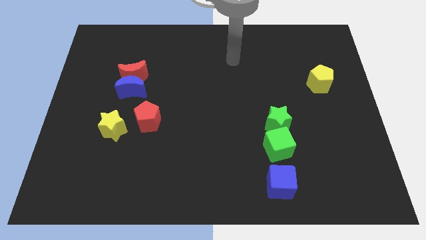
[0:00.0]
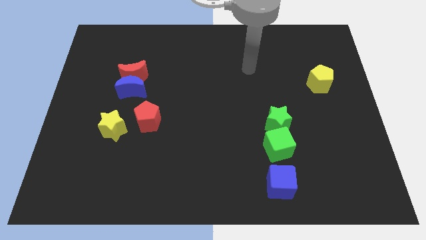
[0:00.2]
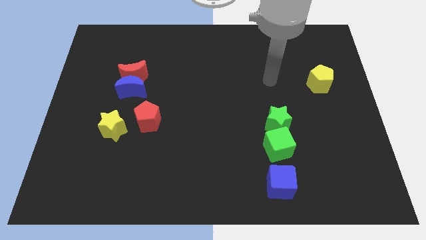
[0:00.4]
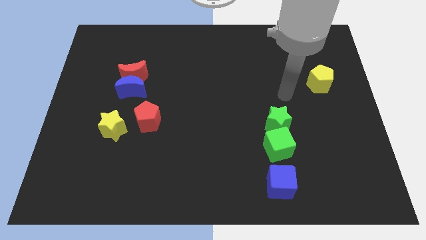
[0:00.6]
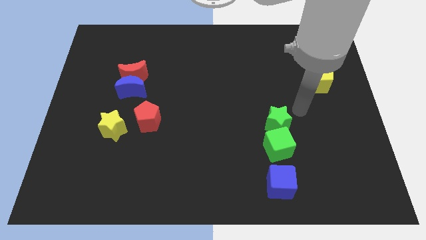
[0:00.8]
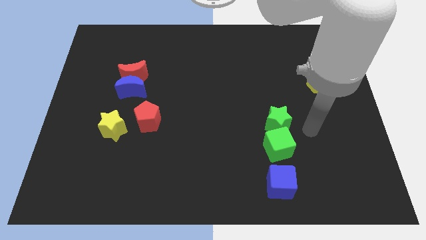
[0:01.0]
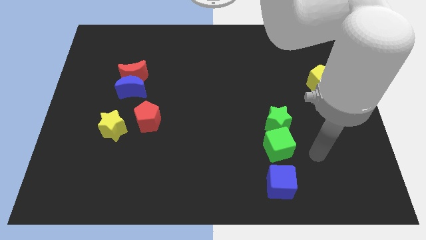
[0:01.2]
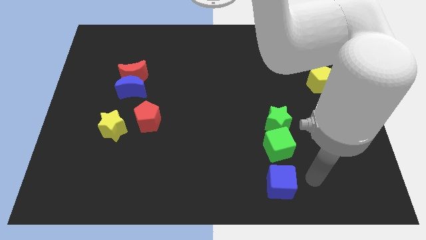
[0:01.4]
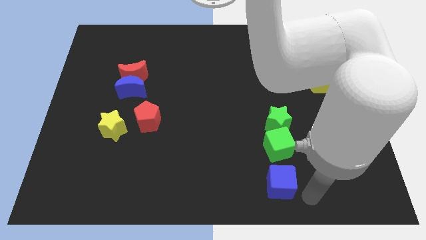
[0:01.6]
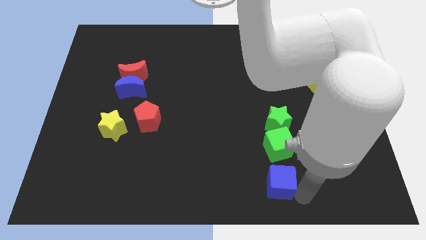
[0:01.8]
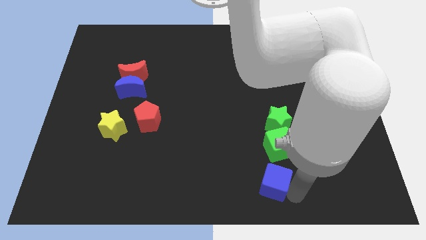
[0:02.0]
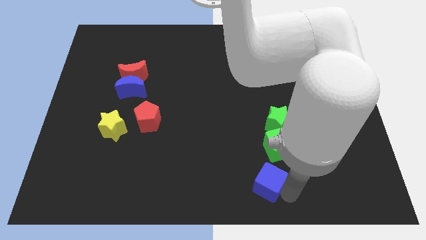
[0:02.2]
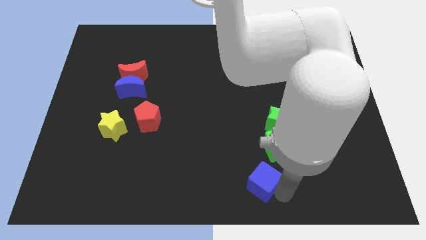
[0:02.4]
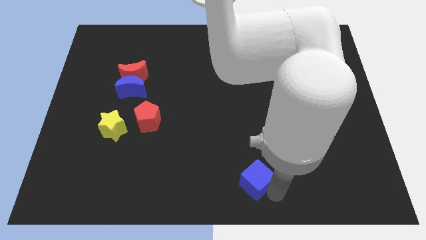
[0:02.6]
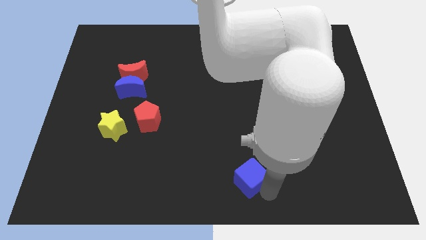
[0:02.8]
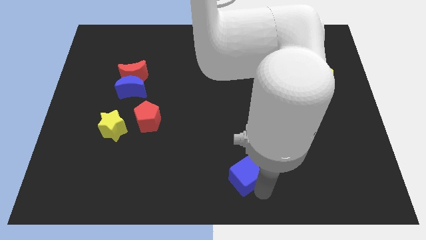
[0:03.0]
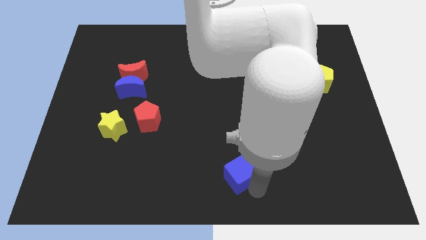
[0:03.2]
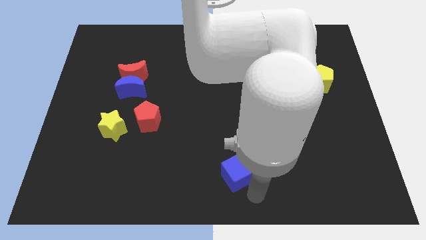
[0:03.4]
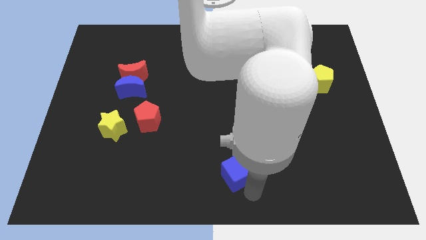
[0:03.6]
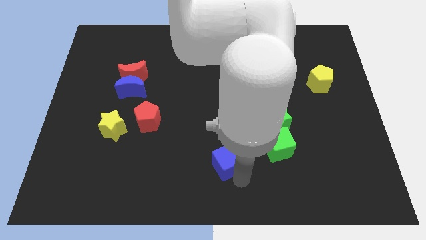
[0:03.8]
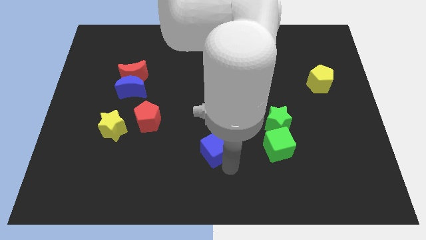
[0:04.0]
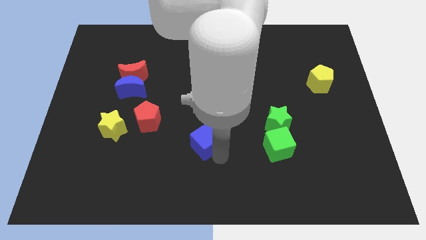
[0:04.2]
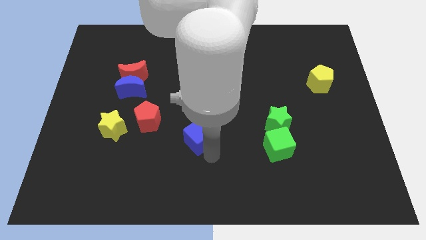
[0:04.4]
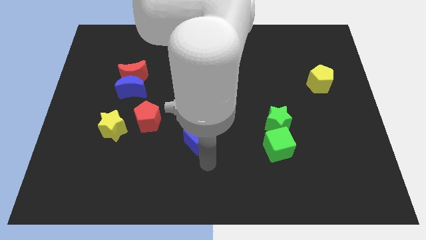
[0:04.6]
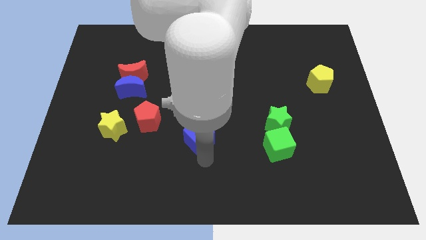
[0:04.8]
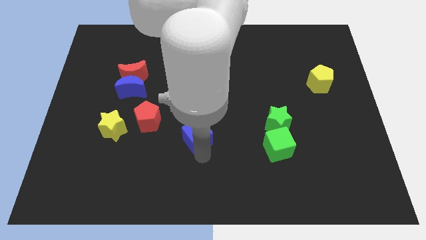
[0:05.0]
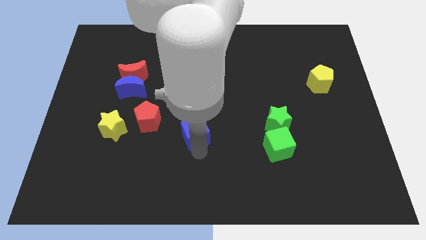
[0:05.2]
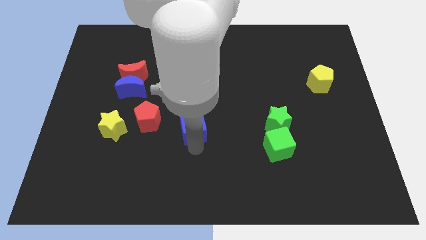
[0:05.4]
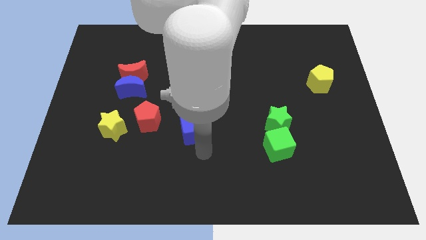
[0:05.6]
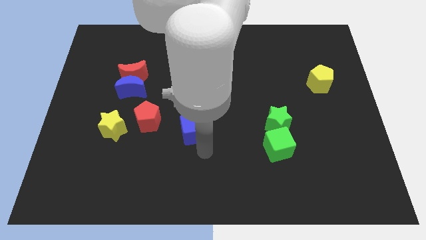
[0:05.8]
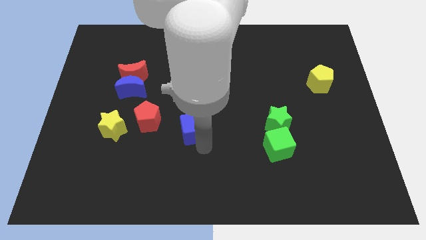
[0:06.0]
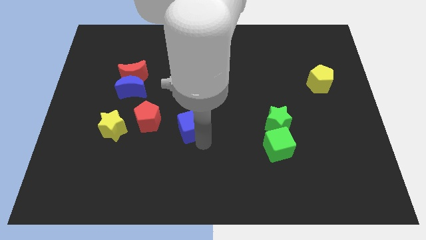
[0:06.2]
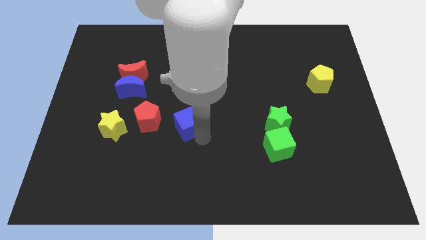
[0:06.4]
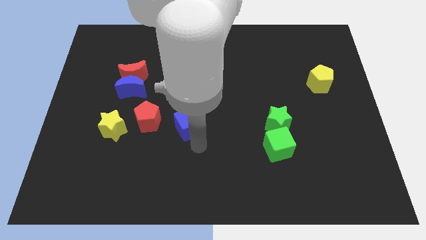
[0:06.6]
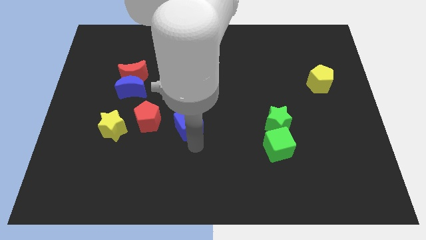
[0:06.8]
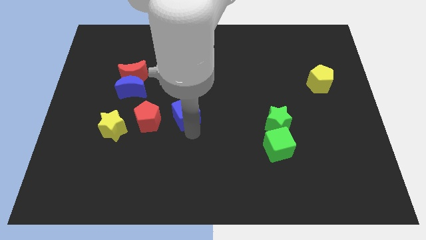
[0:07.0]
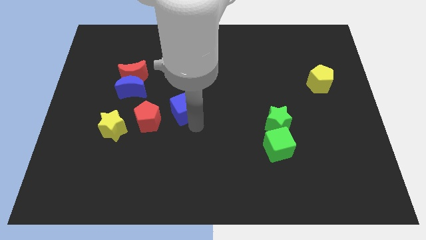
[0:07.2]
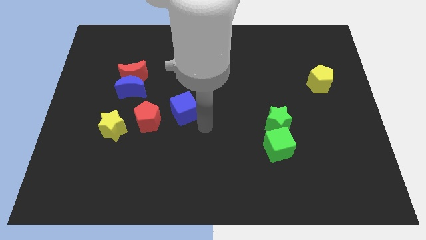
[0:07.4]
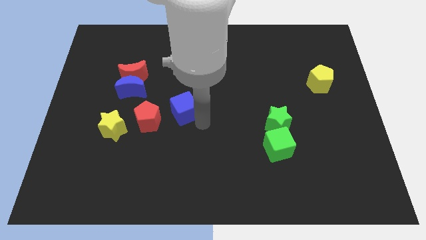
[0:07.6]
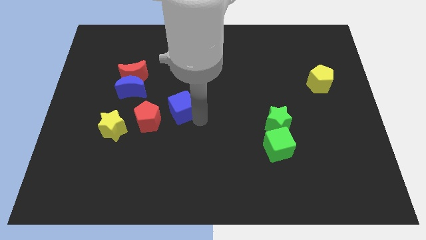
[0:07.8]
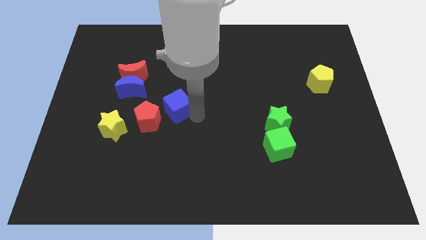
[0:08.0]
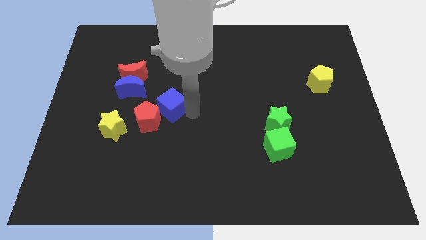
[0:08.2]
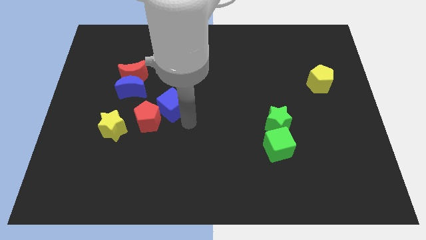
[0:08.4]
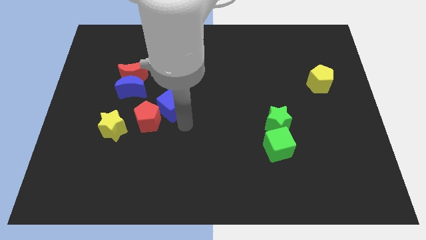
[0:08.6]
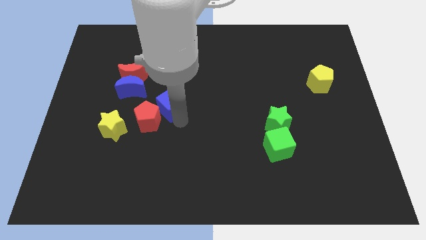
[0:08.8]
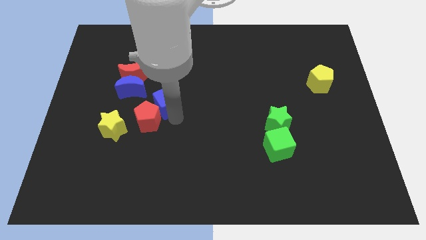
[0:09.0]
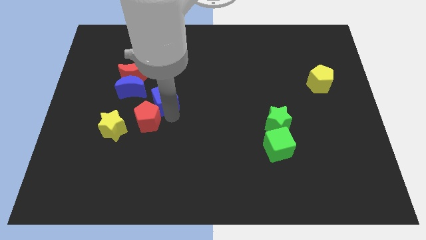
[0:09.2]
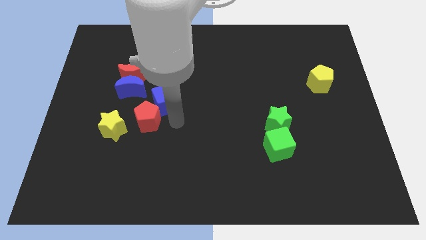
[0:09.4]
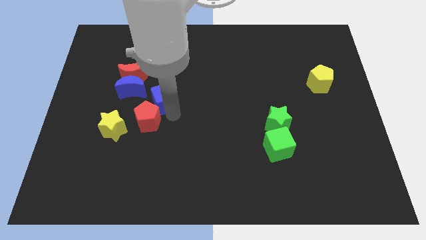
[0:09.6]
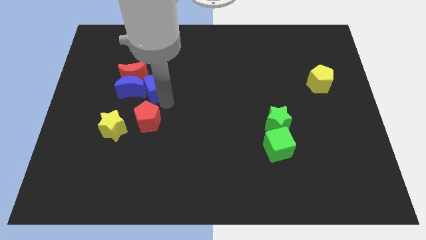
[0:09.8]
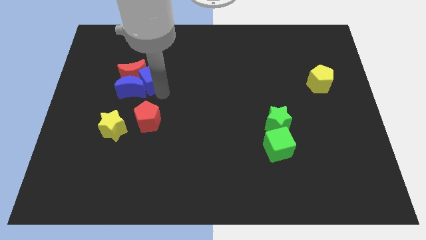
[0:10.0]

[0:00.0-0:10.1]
put the blue cube close to the red moon

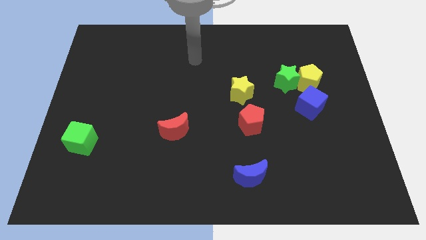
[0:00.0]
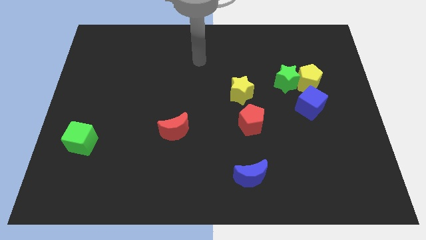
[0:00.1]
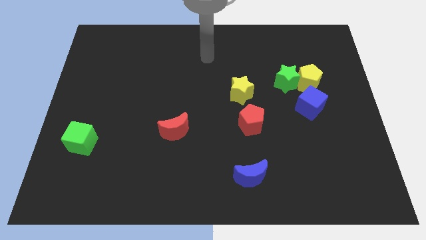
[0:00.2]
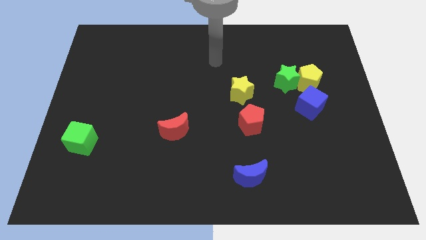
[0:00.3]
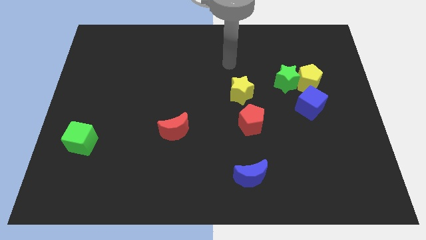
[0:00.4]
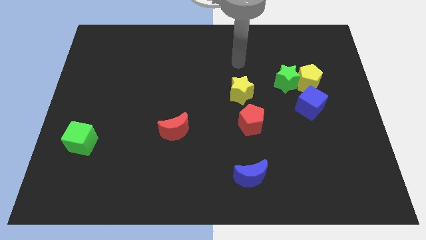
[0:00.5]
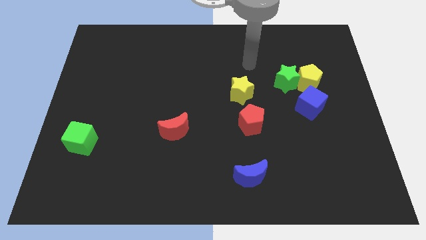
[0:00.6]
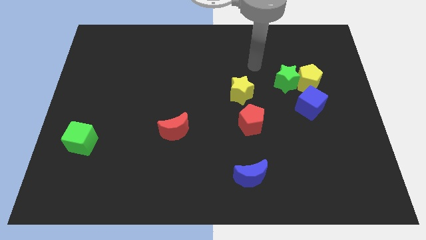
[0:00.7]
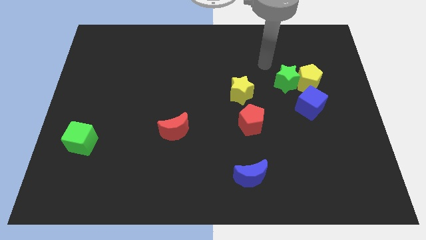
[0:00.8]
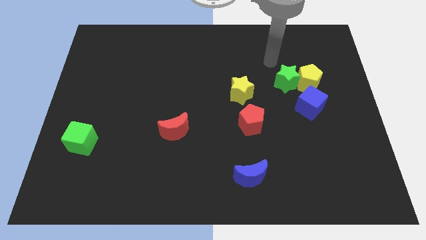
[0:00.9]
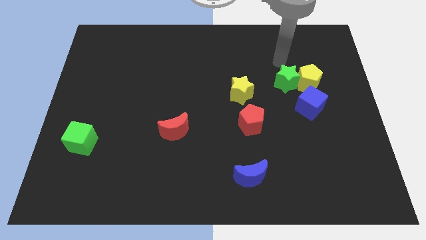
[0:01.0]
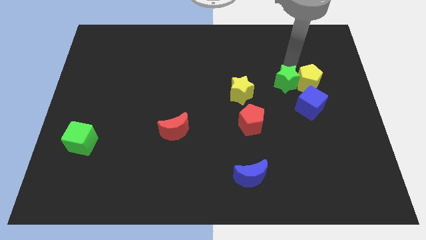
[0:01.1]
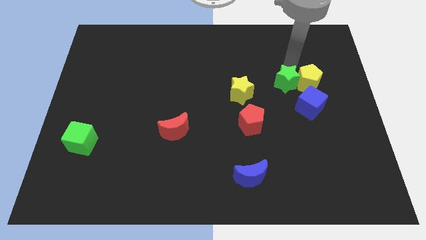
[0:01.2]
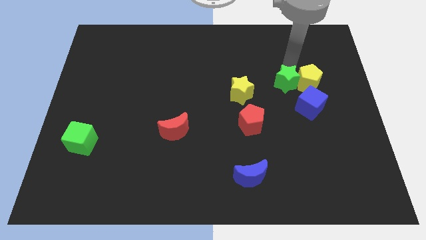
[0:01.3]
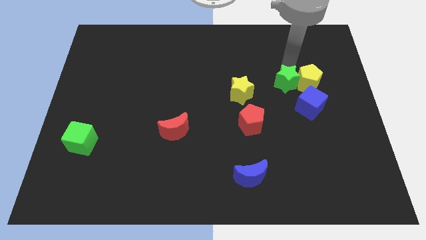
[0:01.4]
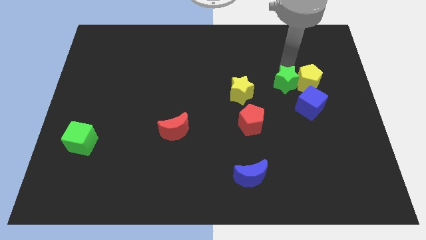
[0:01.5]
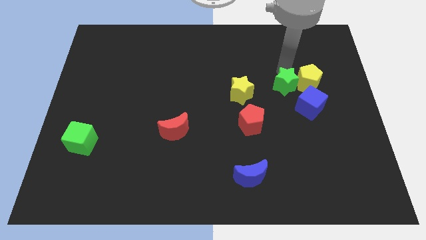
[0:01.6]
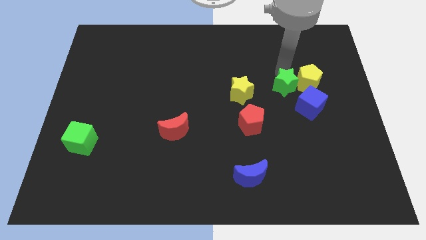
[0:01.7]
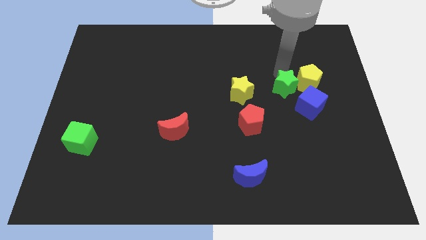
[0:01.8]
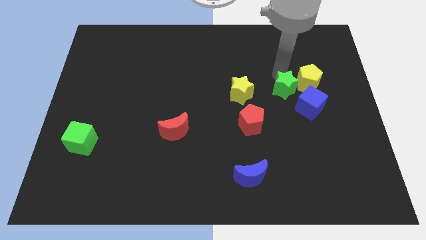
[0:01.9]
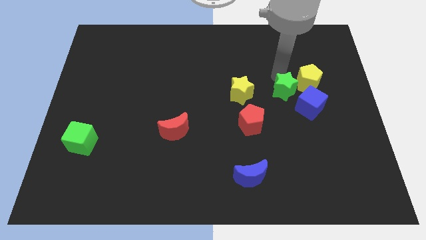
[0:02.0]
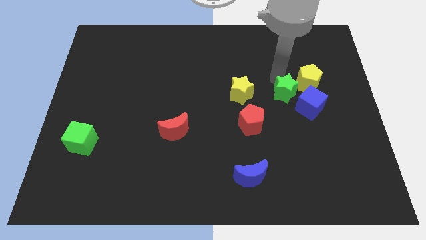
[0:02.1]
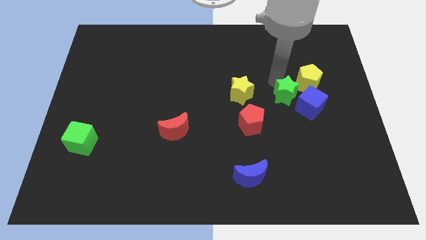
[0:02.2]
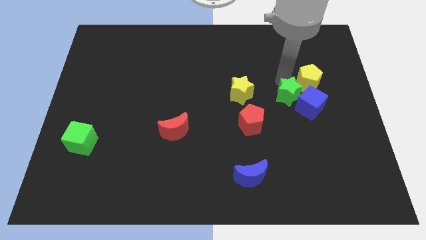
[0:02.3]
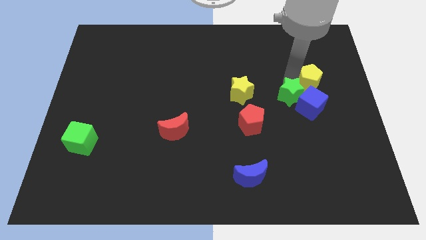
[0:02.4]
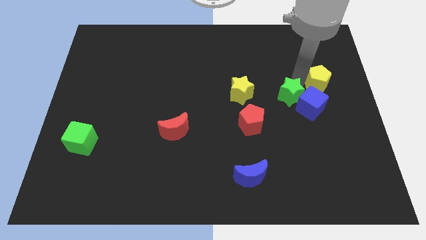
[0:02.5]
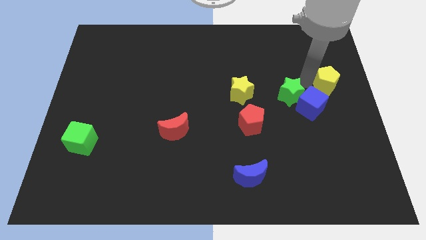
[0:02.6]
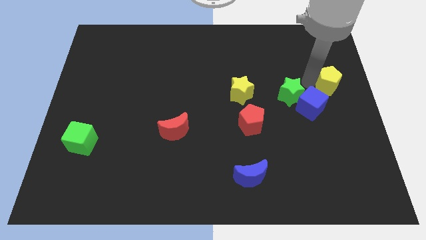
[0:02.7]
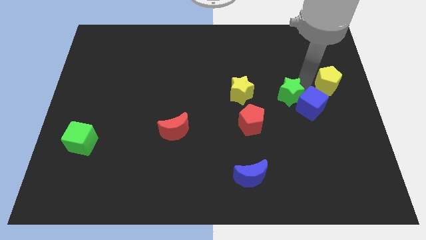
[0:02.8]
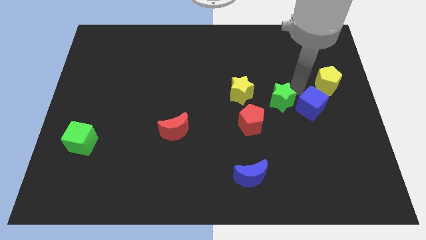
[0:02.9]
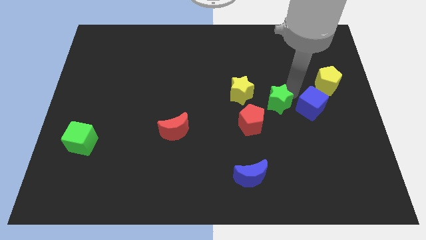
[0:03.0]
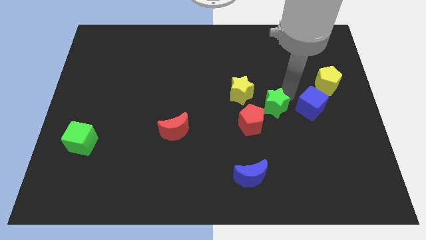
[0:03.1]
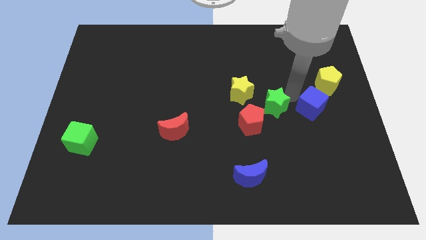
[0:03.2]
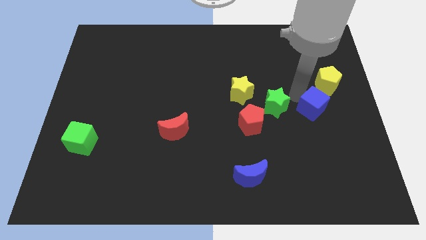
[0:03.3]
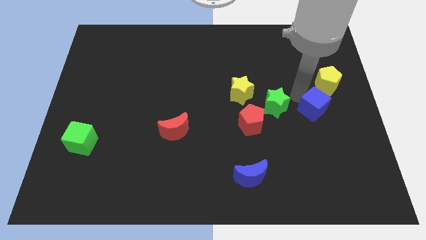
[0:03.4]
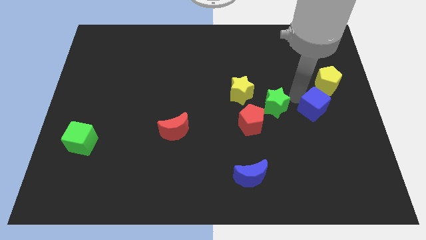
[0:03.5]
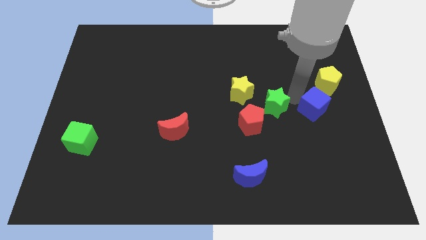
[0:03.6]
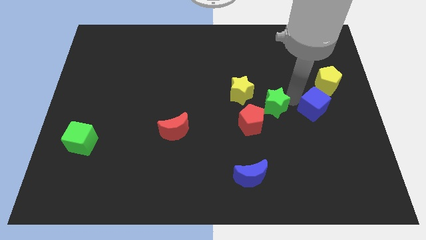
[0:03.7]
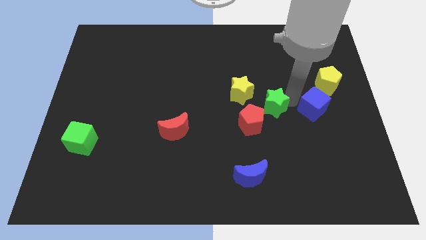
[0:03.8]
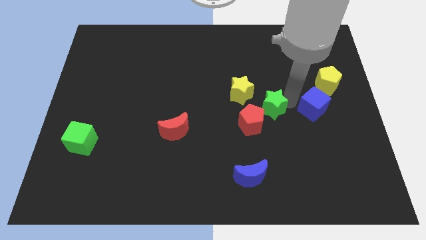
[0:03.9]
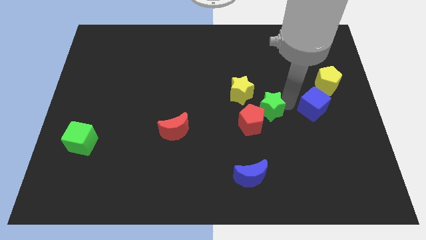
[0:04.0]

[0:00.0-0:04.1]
slide the green star towards the red pentagon
